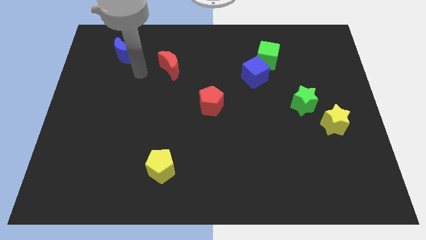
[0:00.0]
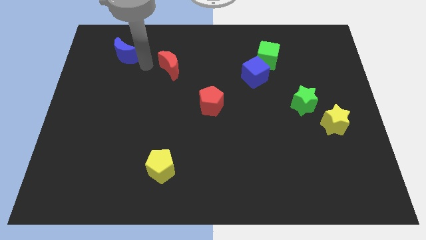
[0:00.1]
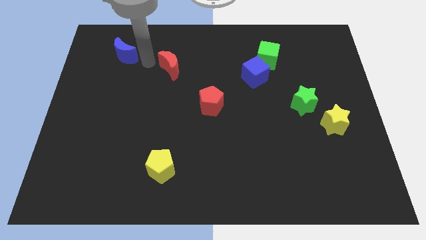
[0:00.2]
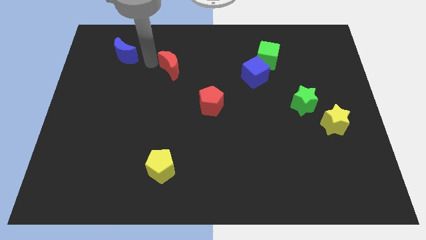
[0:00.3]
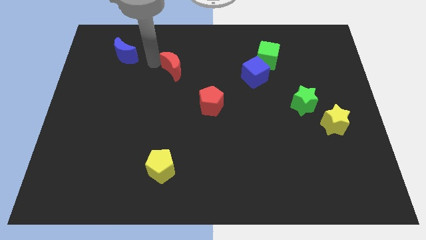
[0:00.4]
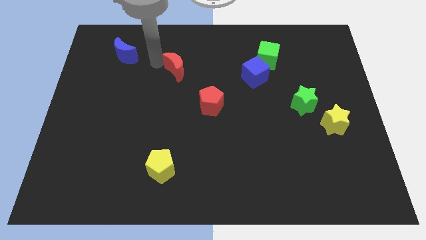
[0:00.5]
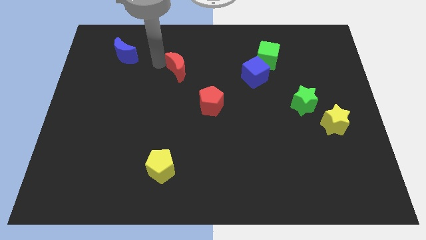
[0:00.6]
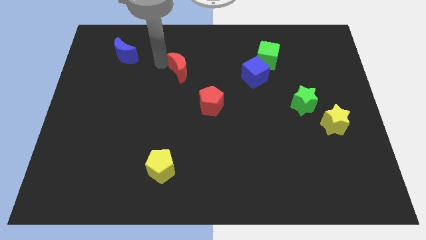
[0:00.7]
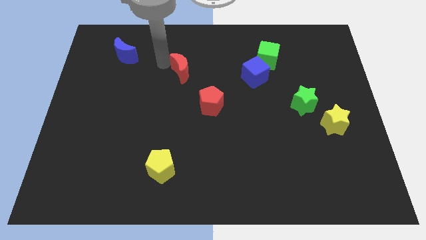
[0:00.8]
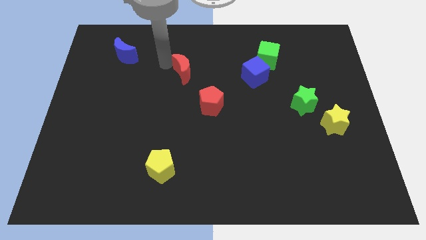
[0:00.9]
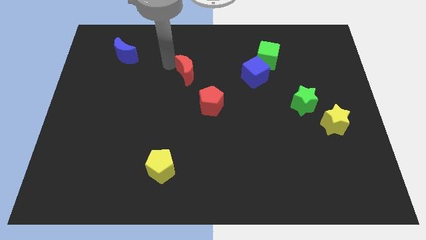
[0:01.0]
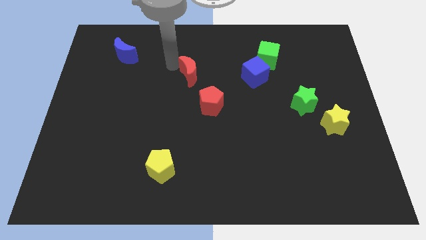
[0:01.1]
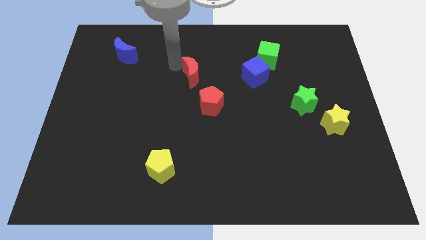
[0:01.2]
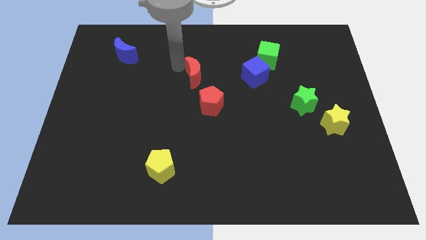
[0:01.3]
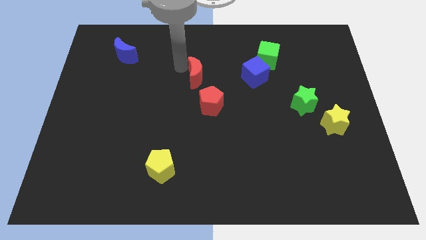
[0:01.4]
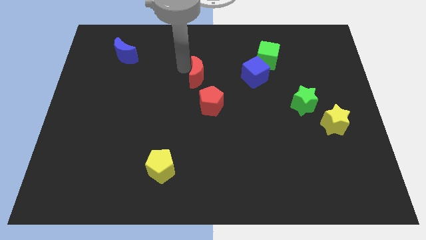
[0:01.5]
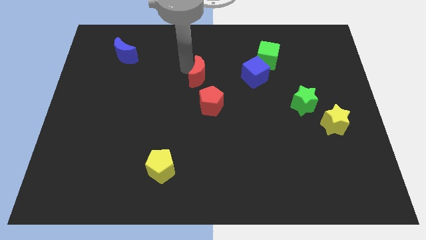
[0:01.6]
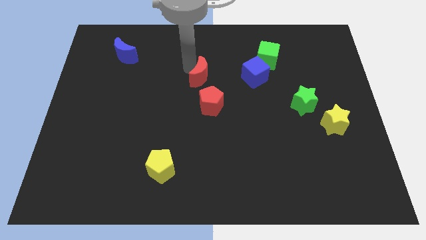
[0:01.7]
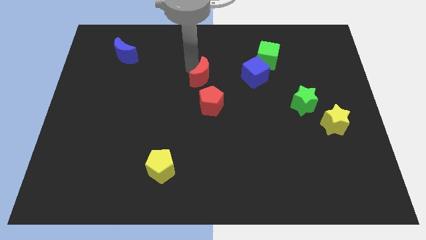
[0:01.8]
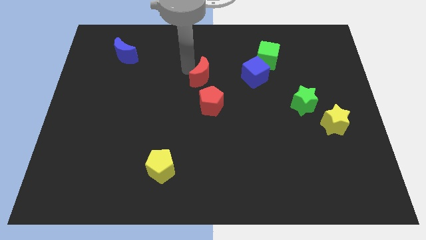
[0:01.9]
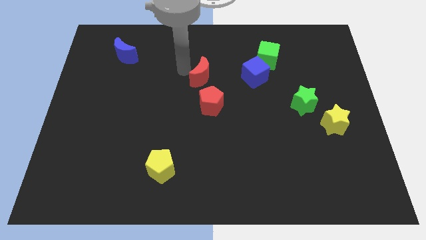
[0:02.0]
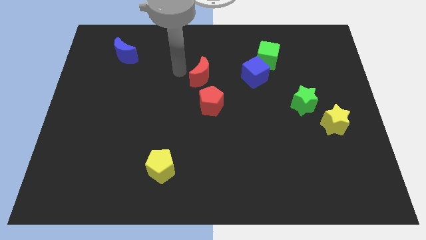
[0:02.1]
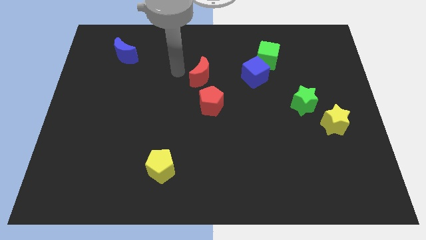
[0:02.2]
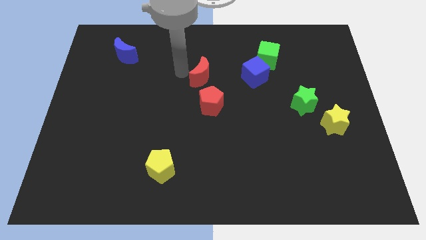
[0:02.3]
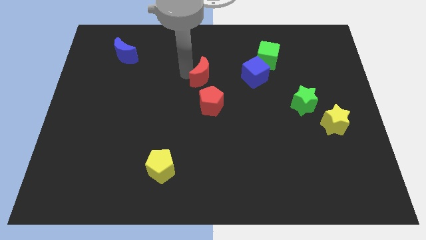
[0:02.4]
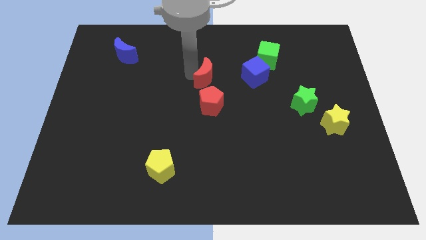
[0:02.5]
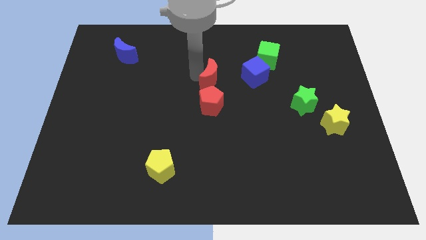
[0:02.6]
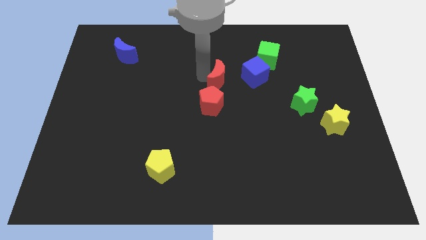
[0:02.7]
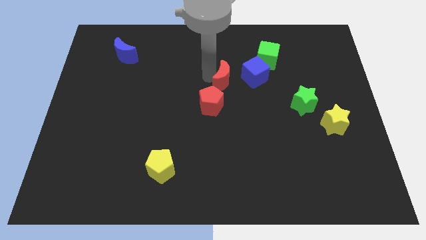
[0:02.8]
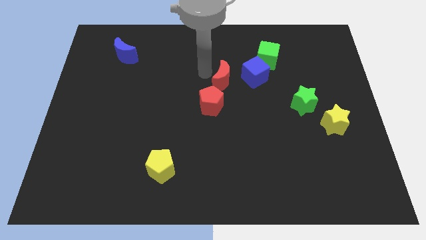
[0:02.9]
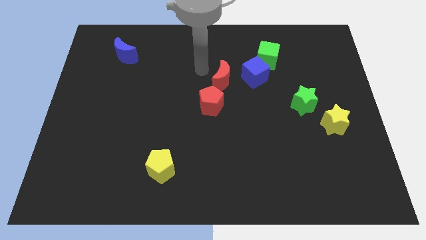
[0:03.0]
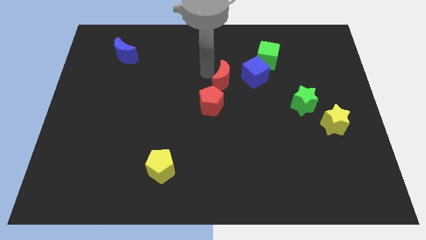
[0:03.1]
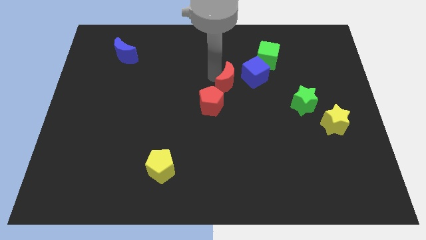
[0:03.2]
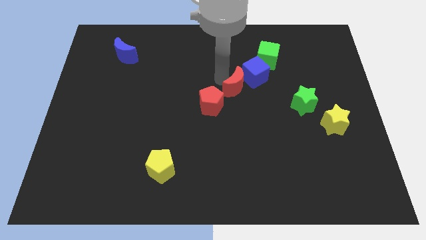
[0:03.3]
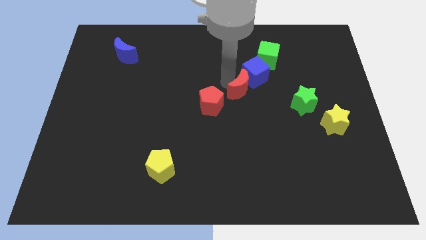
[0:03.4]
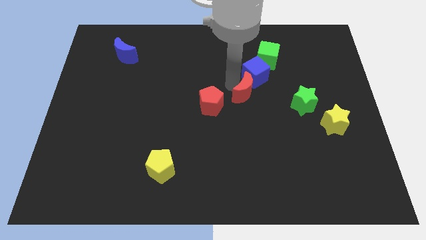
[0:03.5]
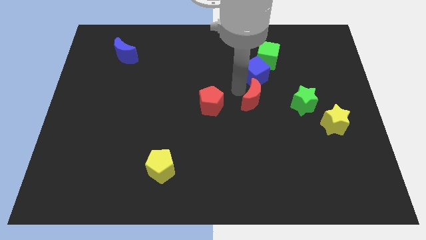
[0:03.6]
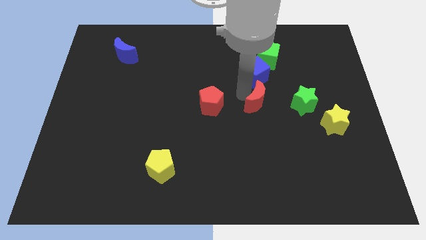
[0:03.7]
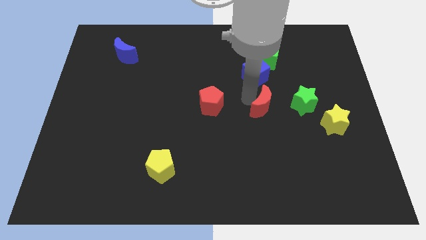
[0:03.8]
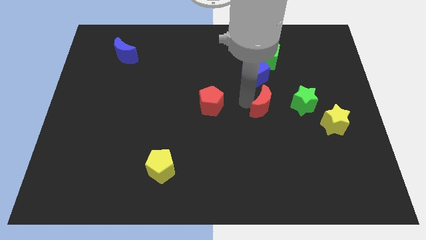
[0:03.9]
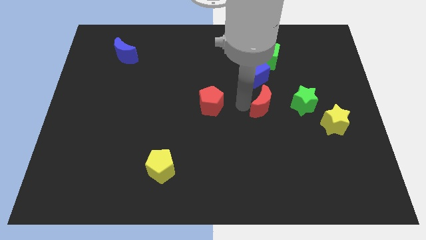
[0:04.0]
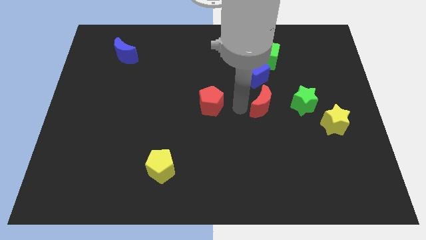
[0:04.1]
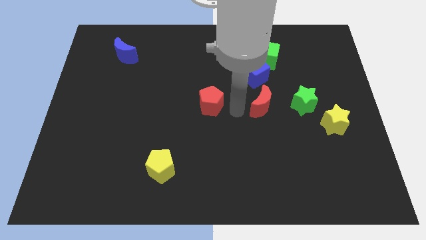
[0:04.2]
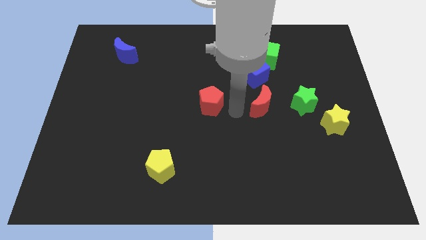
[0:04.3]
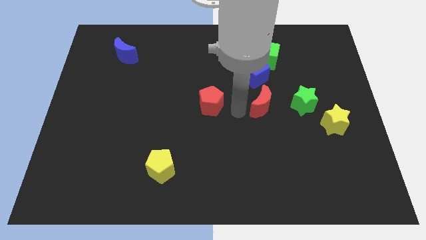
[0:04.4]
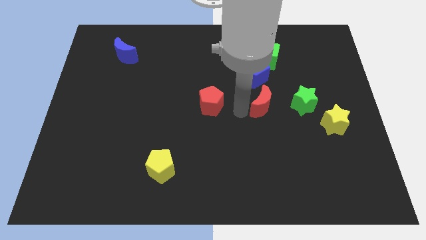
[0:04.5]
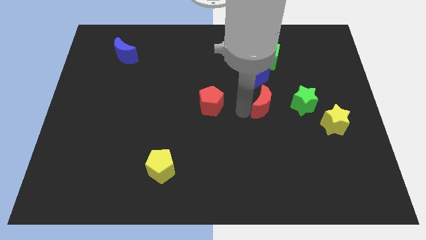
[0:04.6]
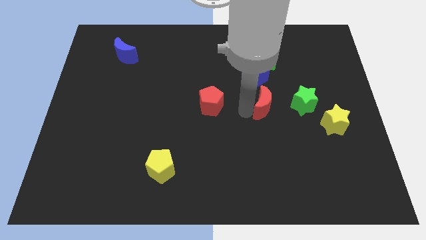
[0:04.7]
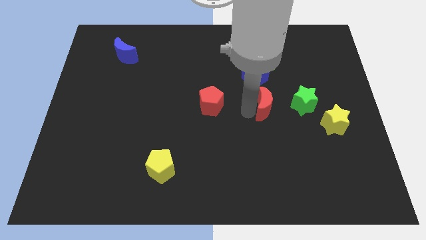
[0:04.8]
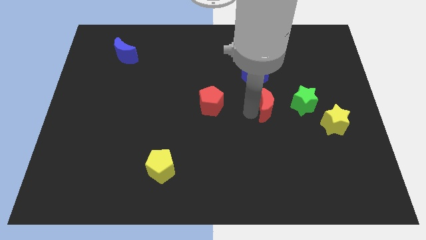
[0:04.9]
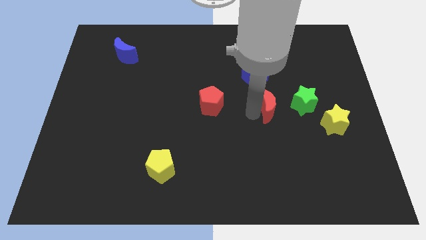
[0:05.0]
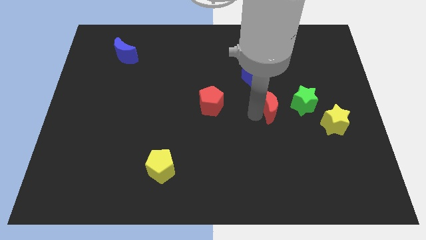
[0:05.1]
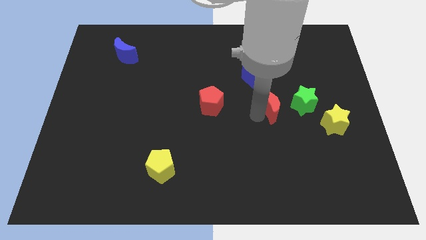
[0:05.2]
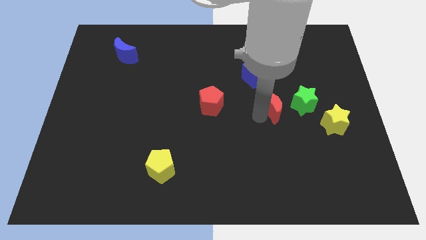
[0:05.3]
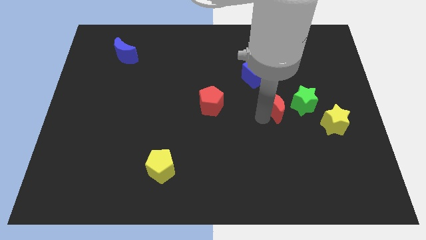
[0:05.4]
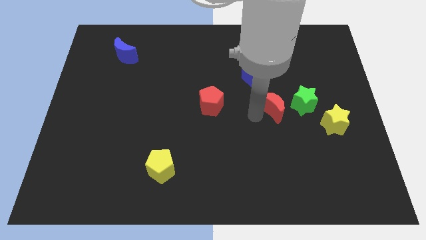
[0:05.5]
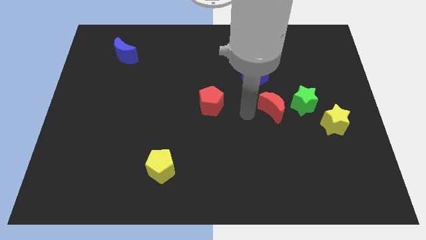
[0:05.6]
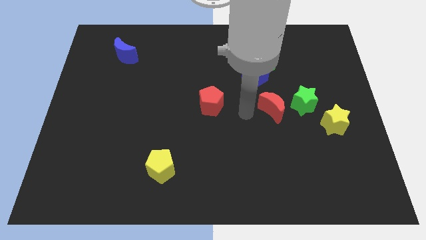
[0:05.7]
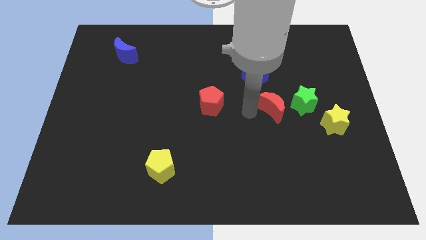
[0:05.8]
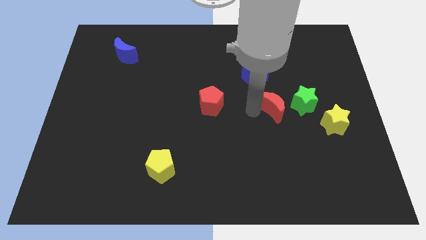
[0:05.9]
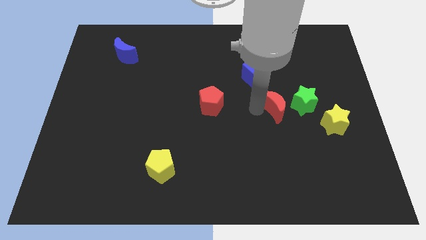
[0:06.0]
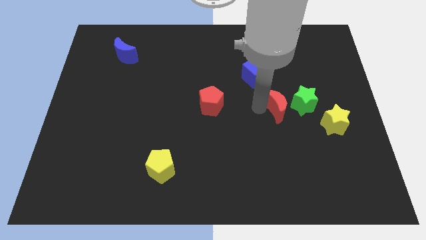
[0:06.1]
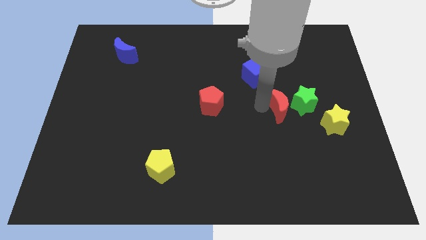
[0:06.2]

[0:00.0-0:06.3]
slide the red moon next to the green star
